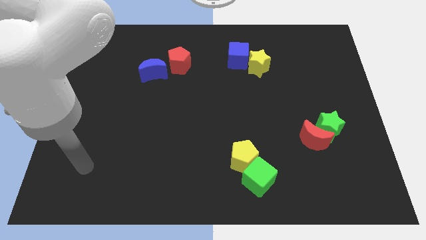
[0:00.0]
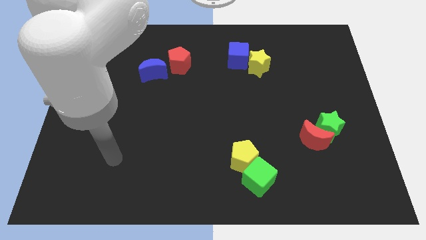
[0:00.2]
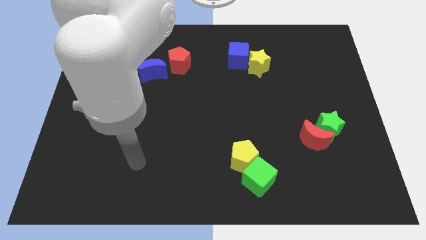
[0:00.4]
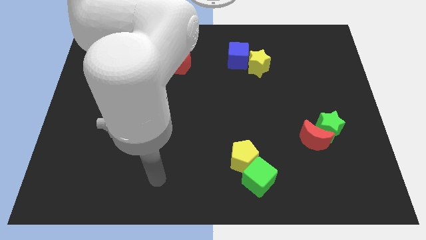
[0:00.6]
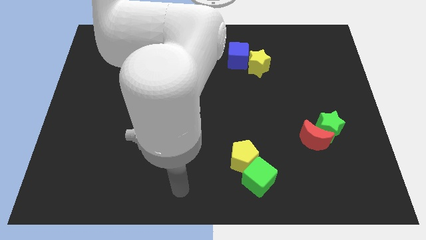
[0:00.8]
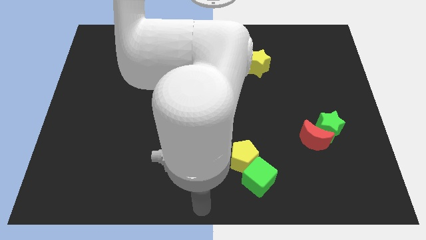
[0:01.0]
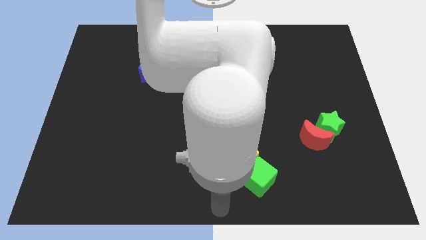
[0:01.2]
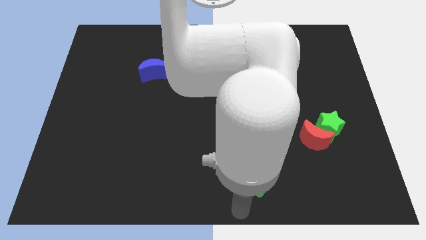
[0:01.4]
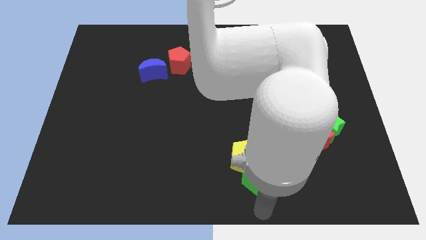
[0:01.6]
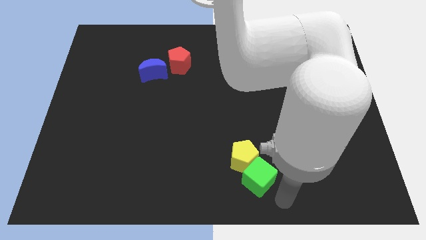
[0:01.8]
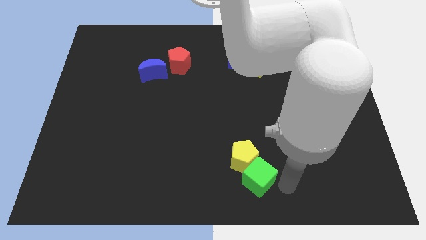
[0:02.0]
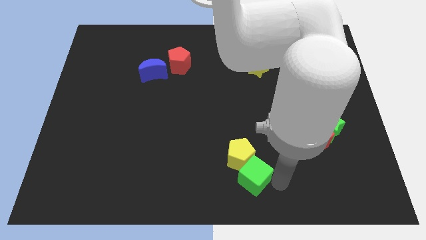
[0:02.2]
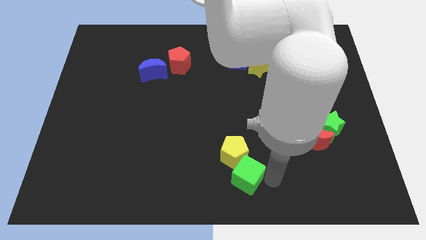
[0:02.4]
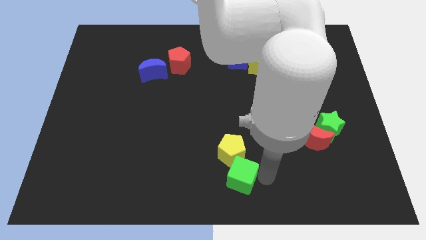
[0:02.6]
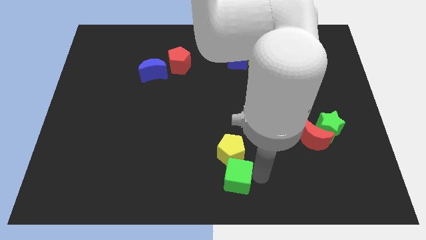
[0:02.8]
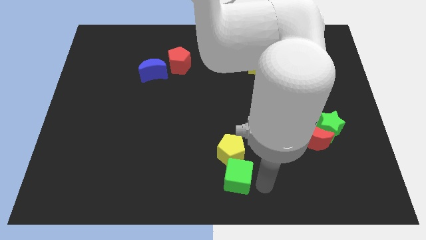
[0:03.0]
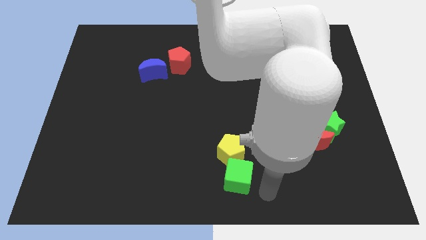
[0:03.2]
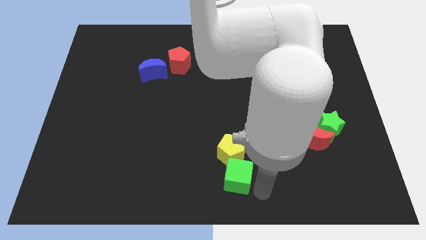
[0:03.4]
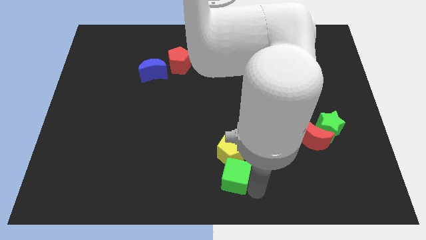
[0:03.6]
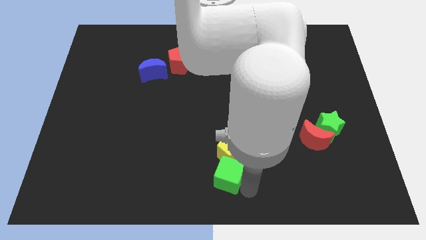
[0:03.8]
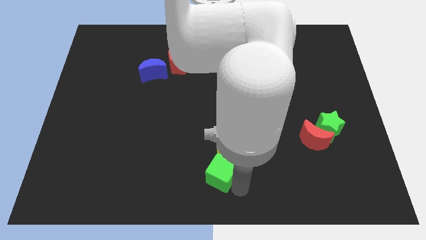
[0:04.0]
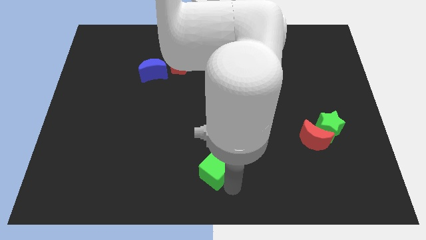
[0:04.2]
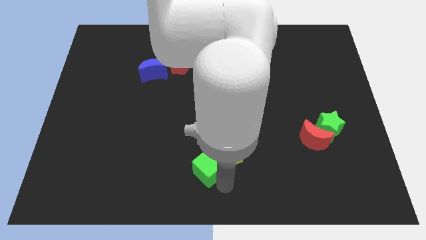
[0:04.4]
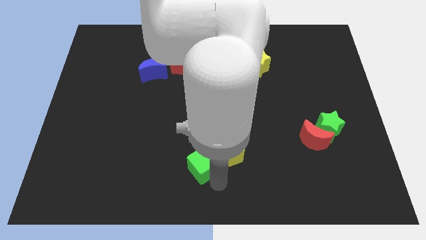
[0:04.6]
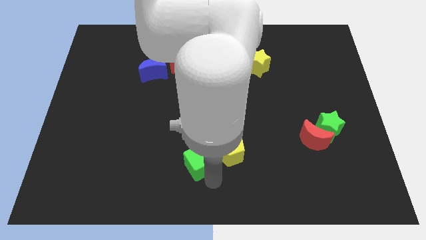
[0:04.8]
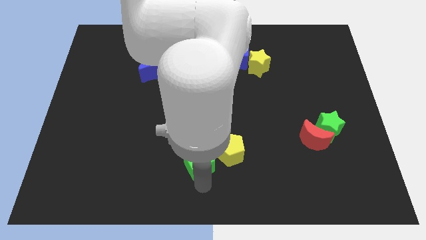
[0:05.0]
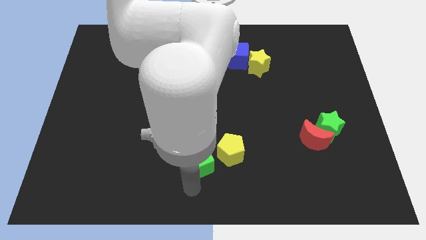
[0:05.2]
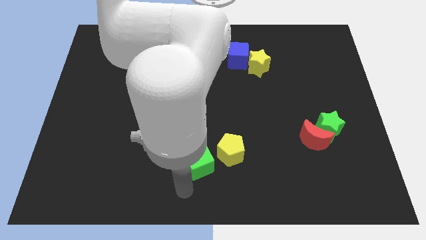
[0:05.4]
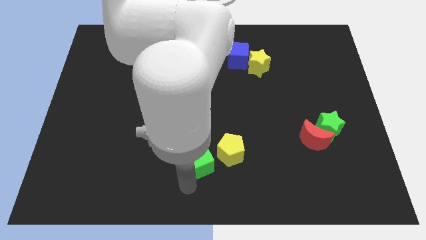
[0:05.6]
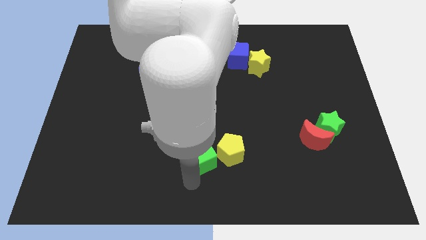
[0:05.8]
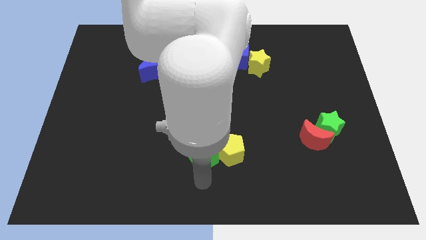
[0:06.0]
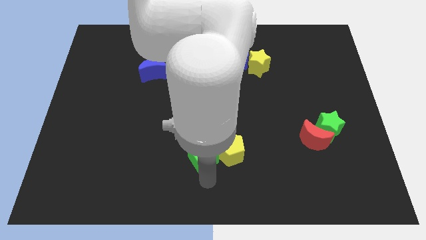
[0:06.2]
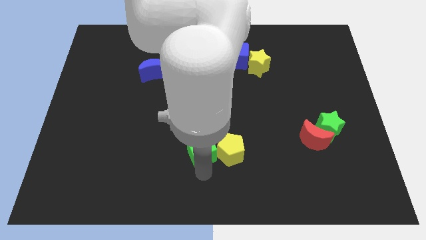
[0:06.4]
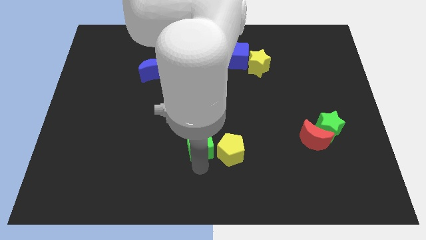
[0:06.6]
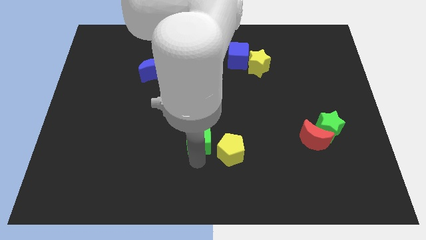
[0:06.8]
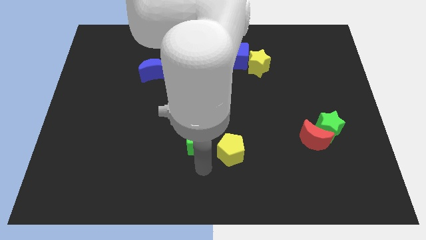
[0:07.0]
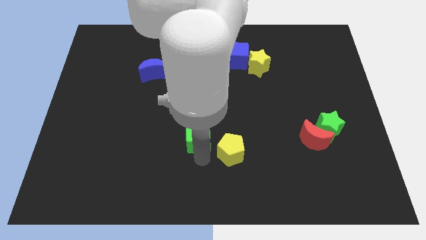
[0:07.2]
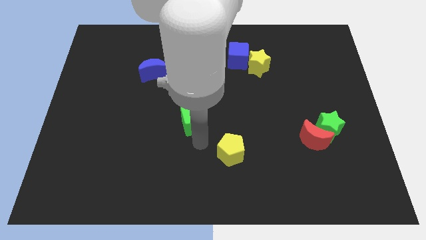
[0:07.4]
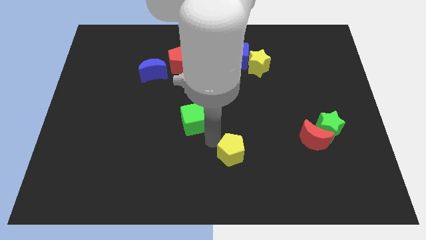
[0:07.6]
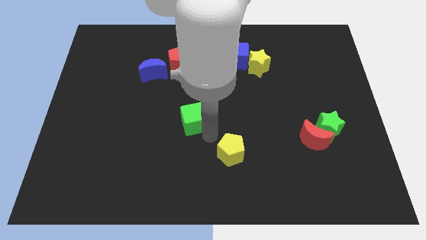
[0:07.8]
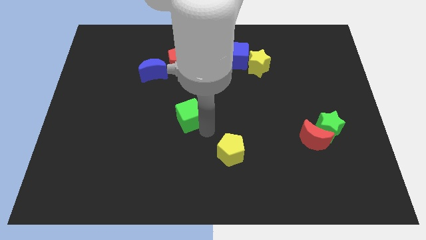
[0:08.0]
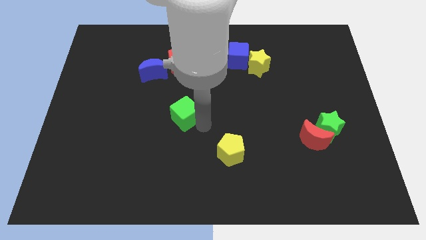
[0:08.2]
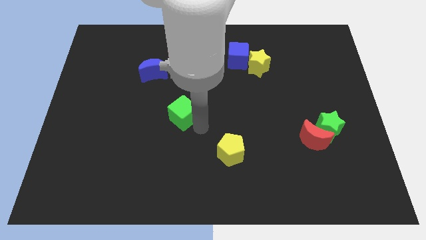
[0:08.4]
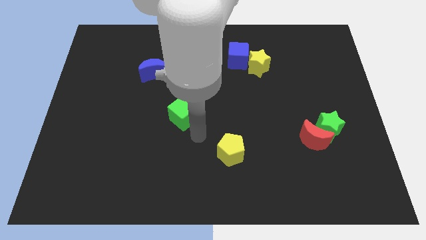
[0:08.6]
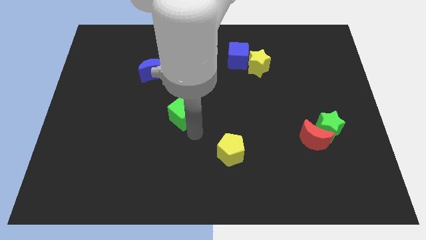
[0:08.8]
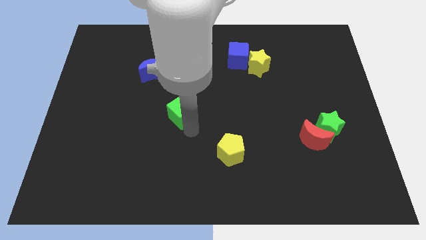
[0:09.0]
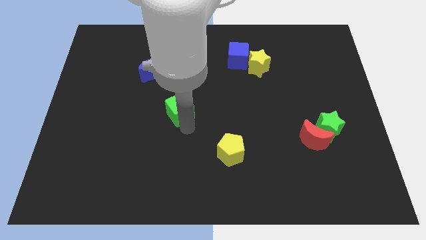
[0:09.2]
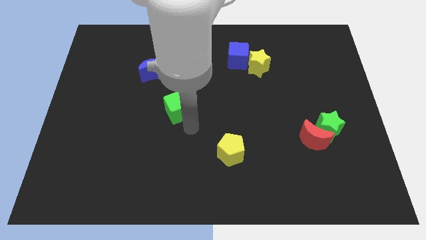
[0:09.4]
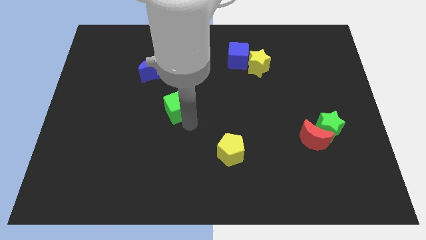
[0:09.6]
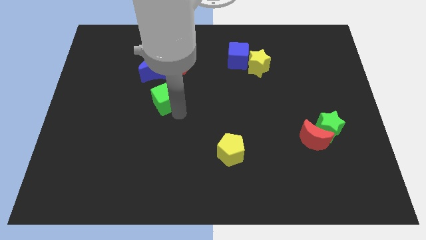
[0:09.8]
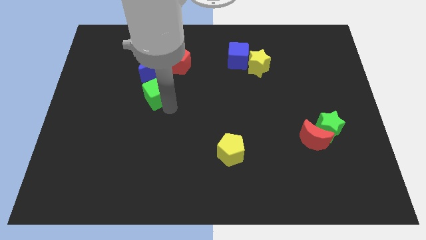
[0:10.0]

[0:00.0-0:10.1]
put the green cube diagonally down and to the left of the red pentagon

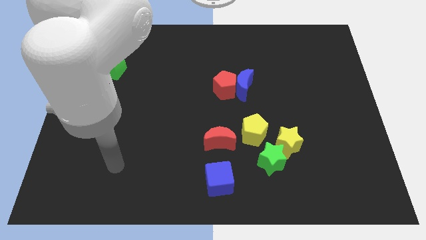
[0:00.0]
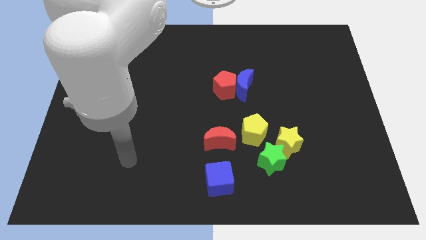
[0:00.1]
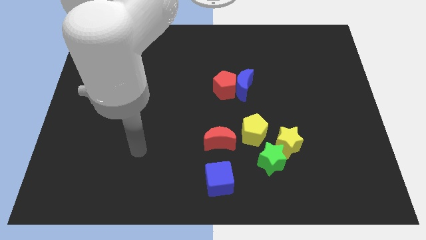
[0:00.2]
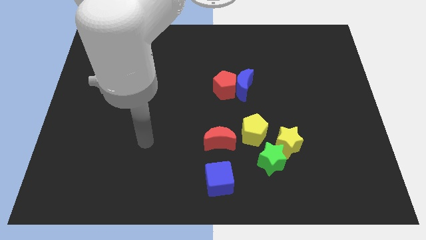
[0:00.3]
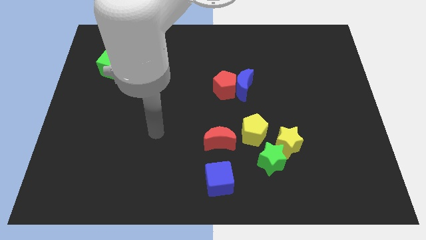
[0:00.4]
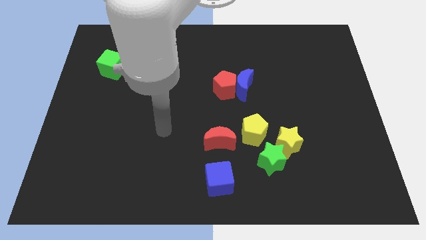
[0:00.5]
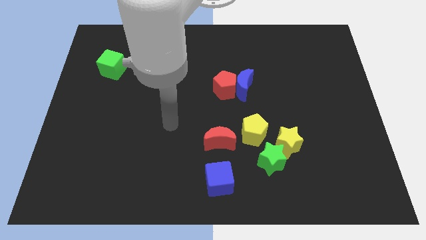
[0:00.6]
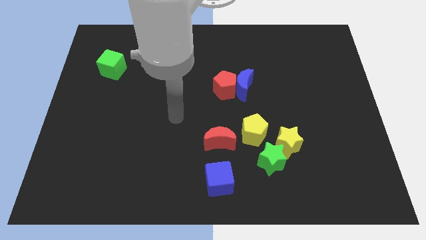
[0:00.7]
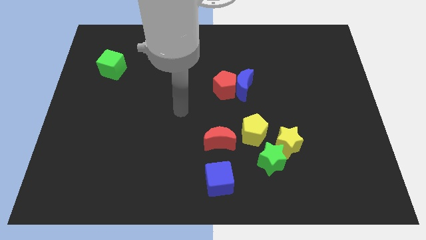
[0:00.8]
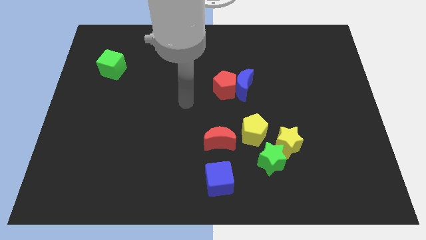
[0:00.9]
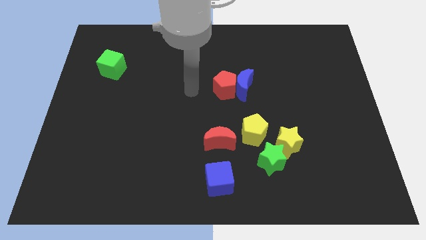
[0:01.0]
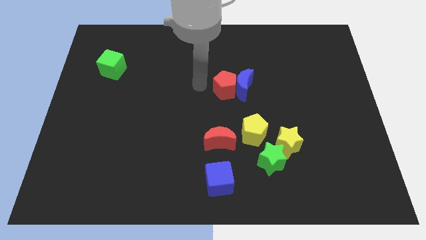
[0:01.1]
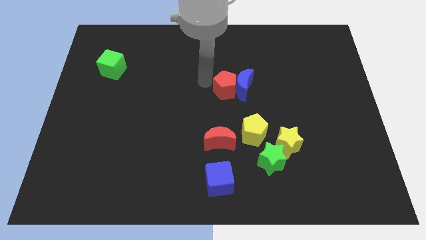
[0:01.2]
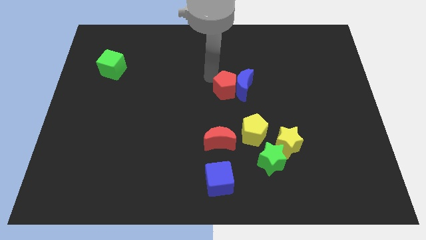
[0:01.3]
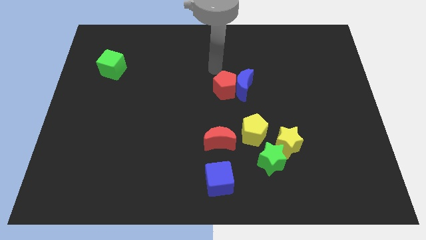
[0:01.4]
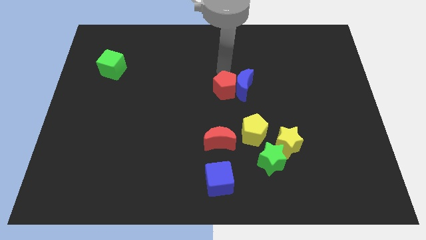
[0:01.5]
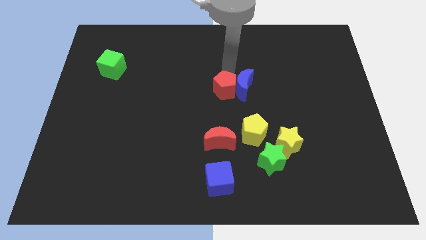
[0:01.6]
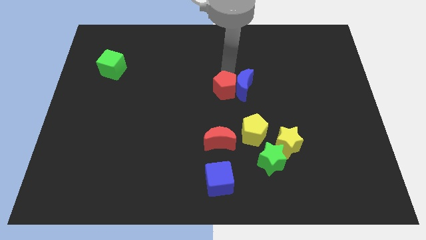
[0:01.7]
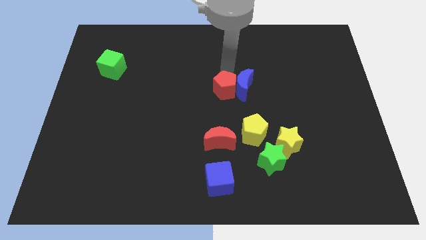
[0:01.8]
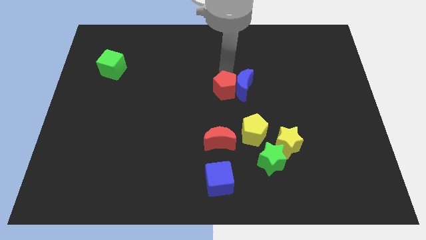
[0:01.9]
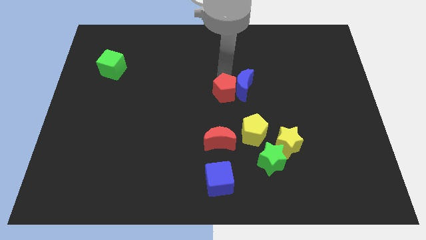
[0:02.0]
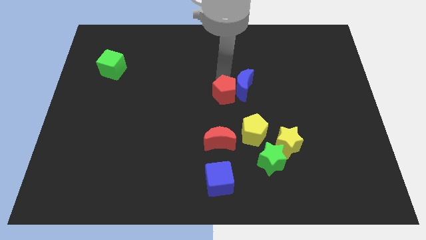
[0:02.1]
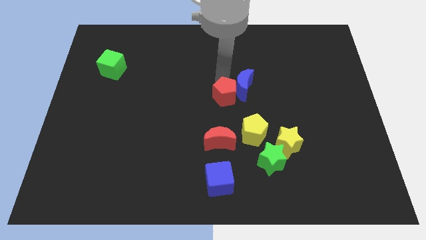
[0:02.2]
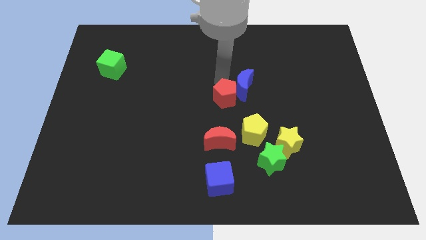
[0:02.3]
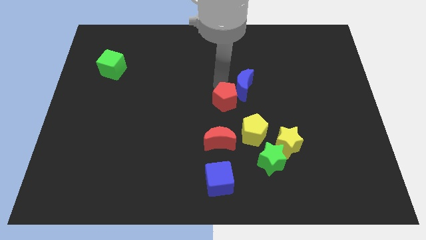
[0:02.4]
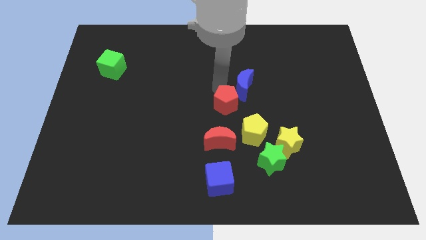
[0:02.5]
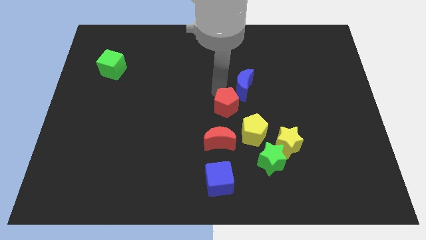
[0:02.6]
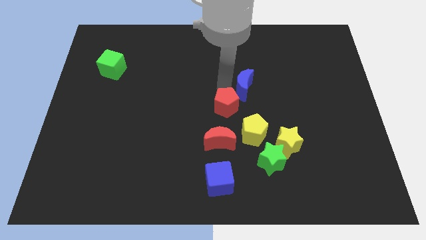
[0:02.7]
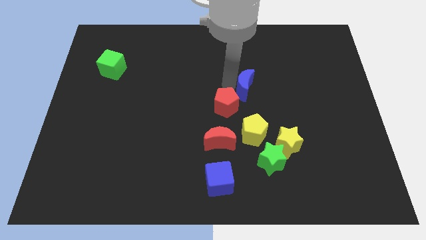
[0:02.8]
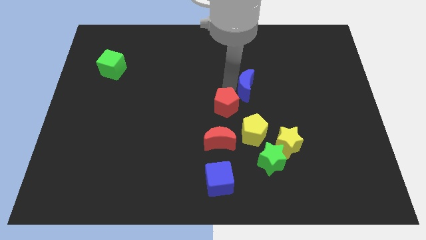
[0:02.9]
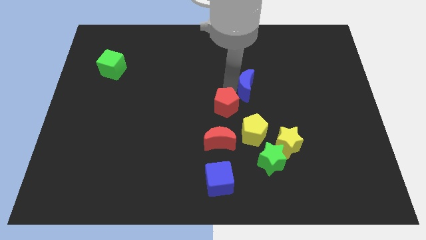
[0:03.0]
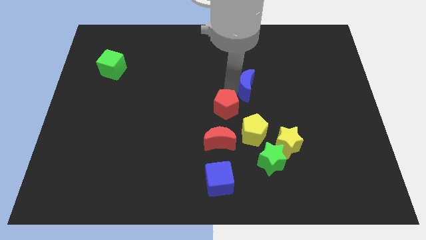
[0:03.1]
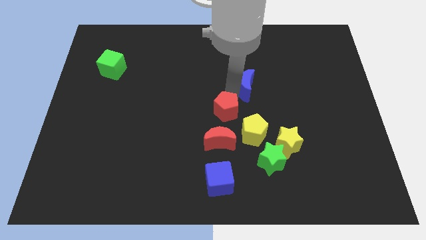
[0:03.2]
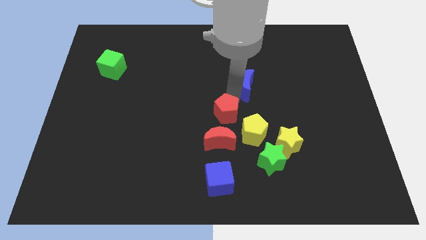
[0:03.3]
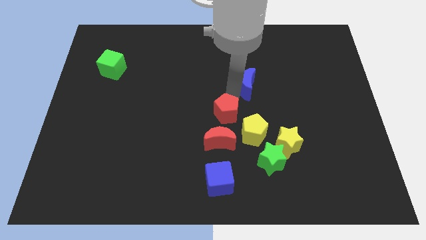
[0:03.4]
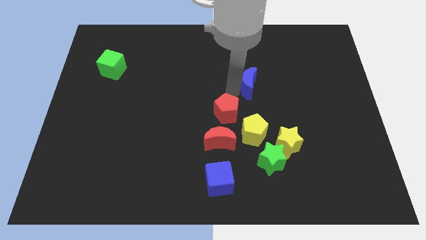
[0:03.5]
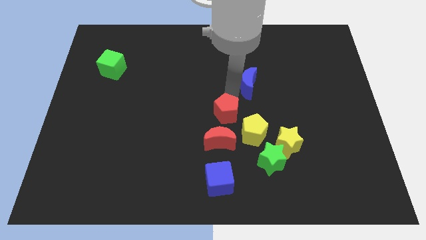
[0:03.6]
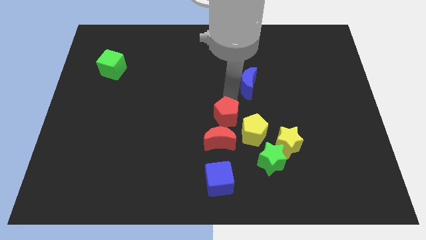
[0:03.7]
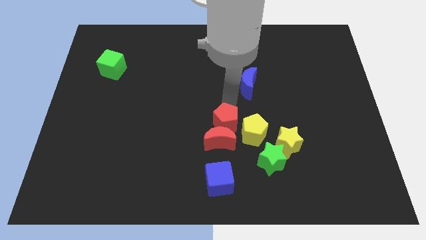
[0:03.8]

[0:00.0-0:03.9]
slide the red pentagon to the top side of the blue cube
